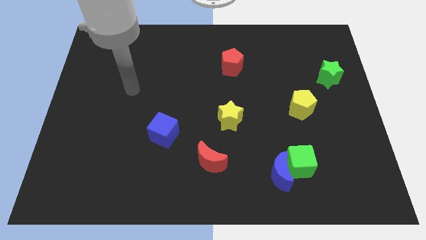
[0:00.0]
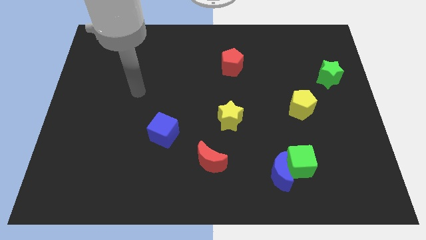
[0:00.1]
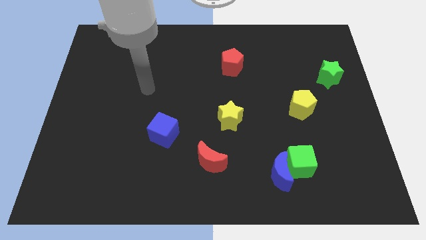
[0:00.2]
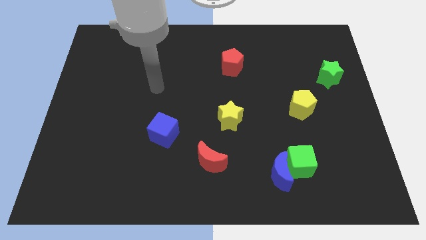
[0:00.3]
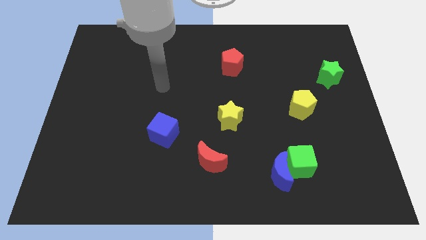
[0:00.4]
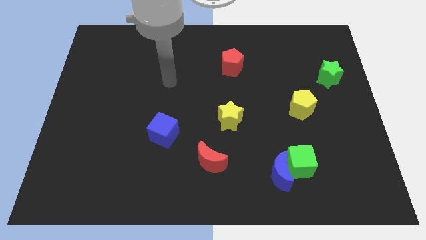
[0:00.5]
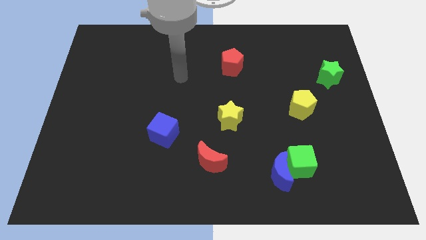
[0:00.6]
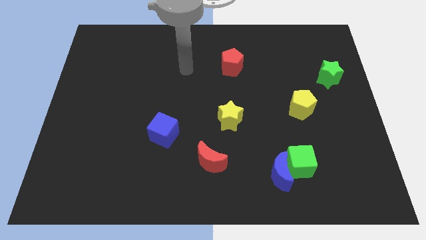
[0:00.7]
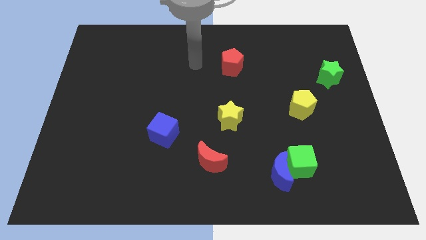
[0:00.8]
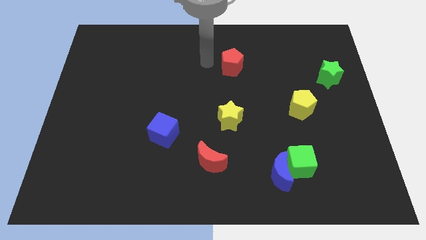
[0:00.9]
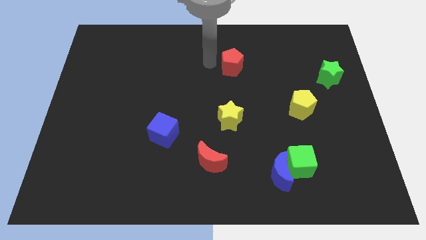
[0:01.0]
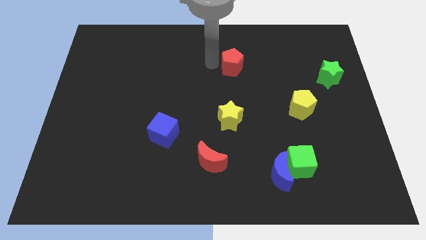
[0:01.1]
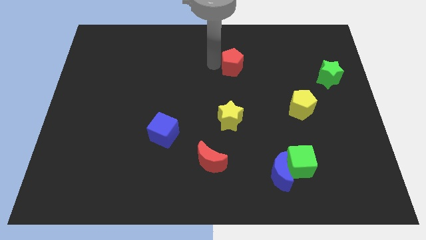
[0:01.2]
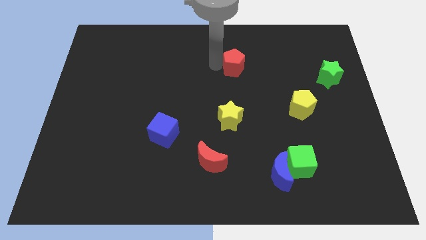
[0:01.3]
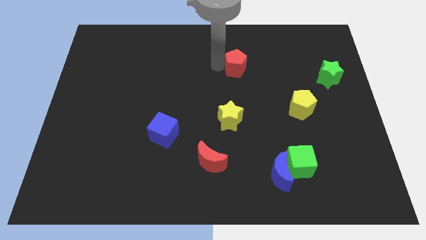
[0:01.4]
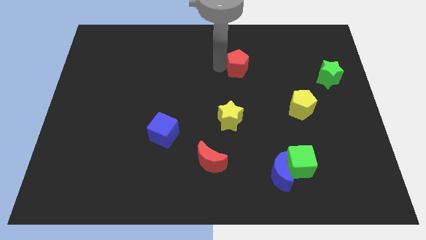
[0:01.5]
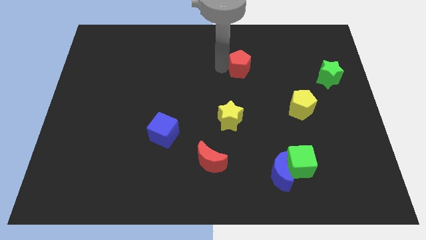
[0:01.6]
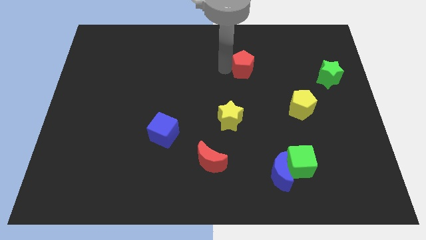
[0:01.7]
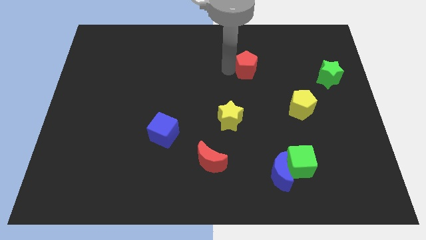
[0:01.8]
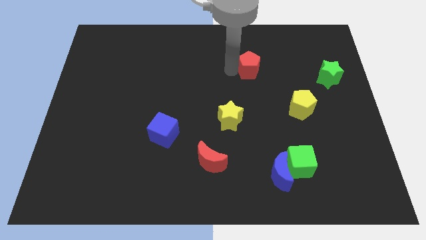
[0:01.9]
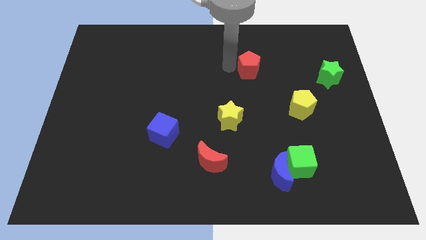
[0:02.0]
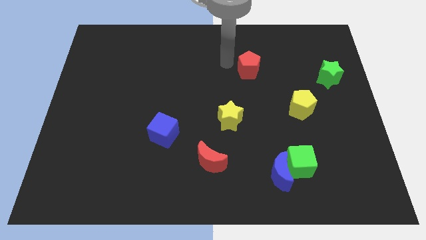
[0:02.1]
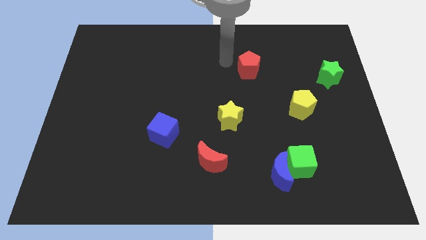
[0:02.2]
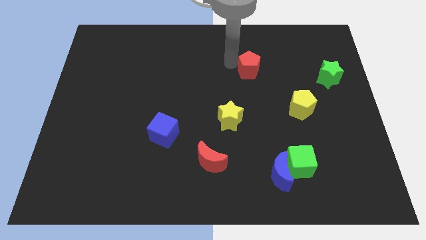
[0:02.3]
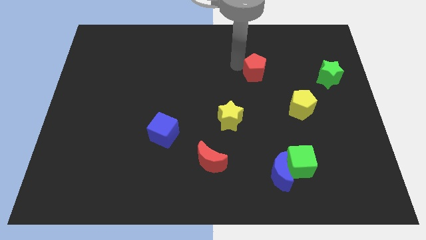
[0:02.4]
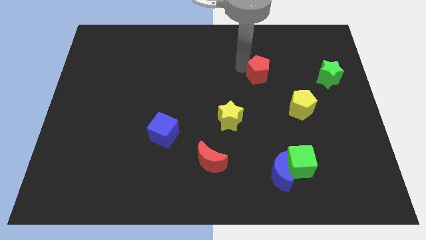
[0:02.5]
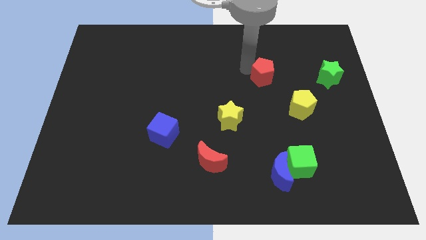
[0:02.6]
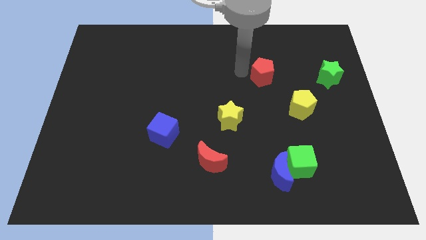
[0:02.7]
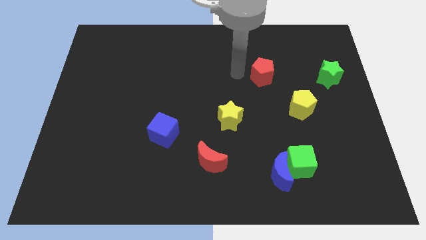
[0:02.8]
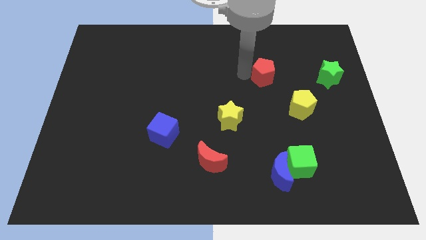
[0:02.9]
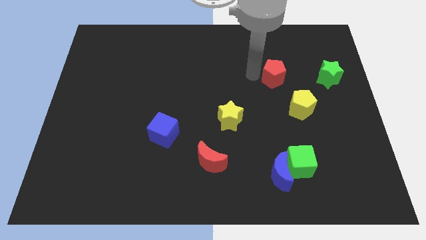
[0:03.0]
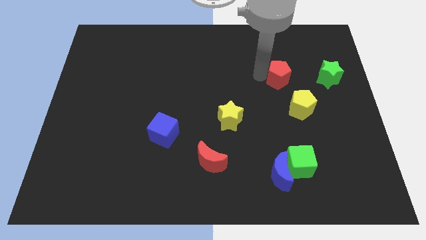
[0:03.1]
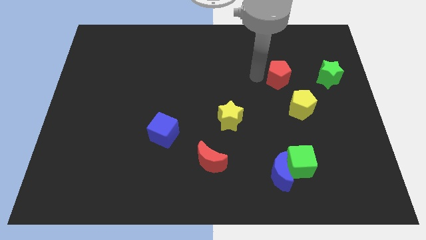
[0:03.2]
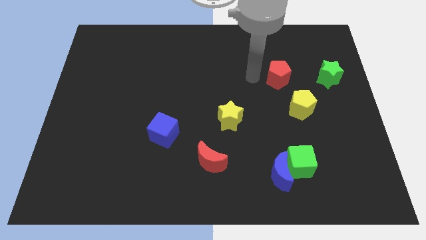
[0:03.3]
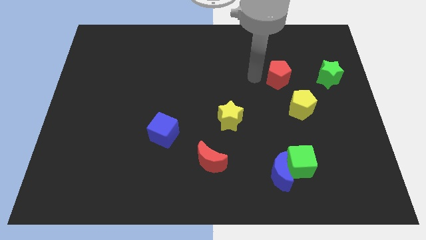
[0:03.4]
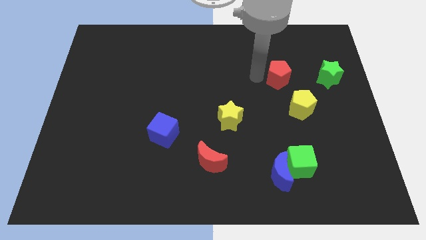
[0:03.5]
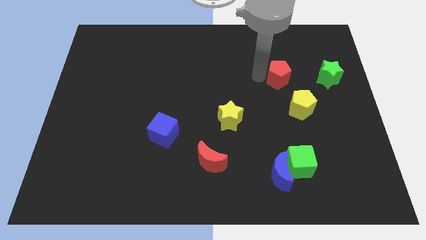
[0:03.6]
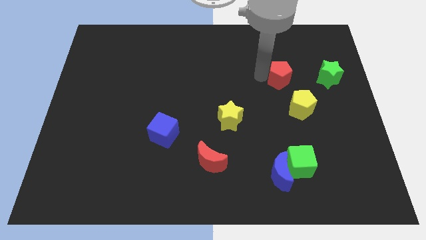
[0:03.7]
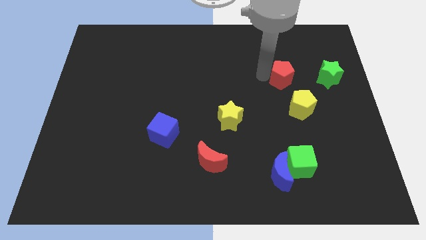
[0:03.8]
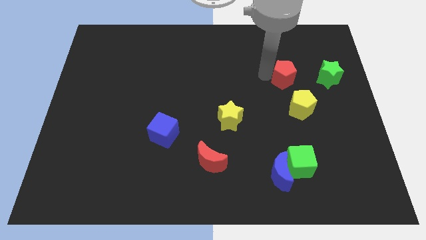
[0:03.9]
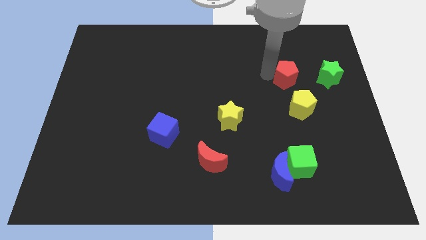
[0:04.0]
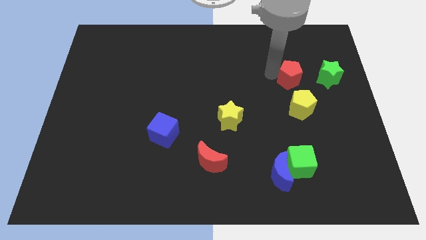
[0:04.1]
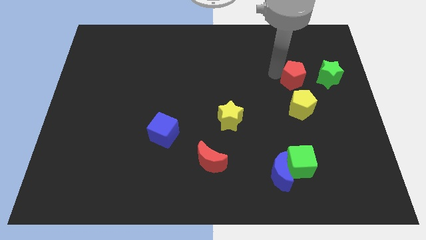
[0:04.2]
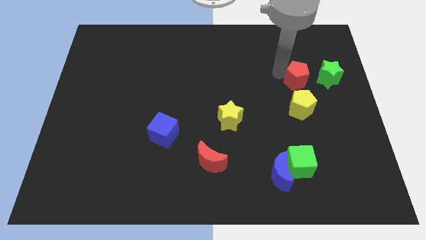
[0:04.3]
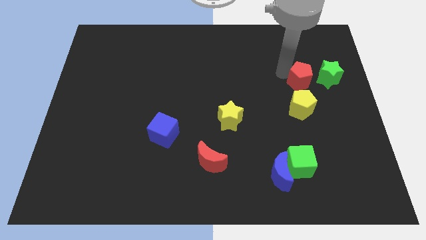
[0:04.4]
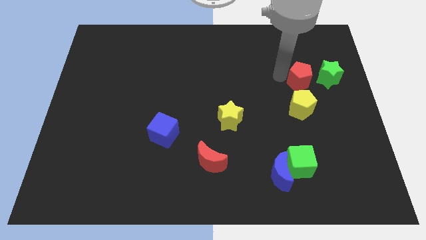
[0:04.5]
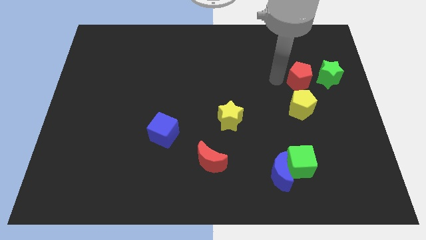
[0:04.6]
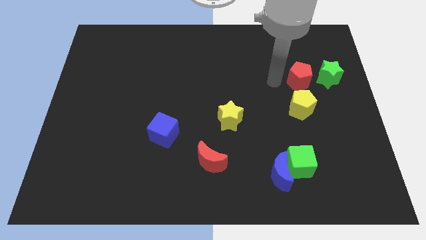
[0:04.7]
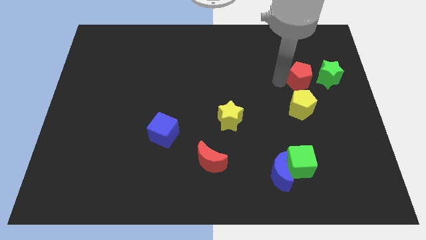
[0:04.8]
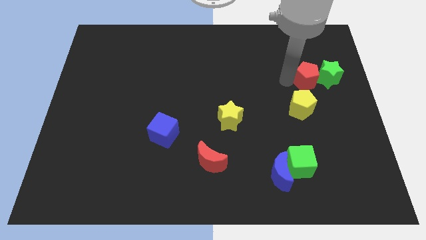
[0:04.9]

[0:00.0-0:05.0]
push the red pentagon next to the green star

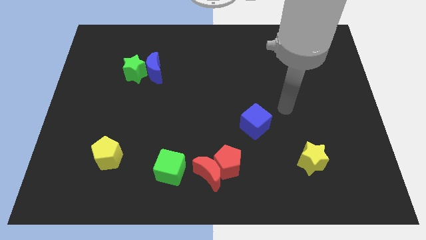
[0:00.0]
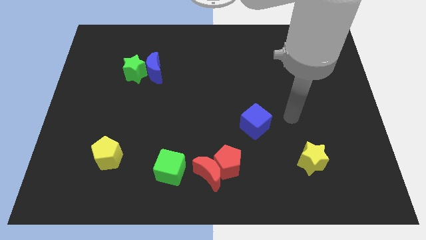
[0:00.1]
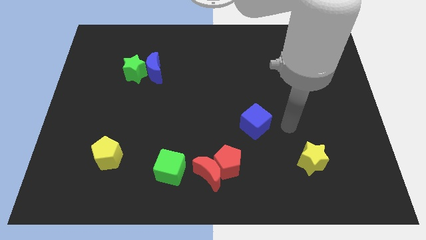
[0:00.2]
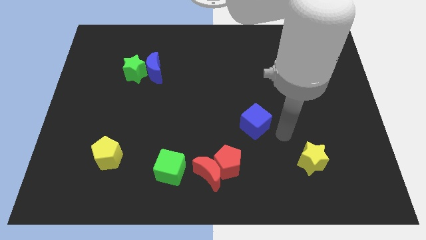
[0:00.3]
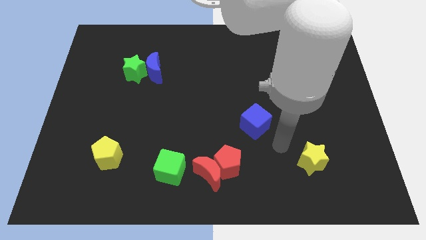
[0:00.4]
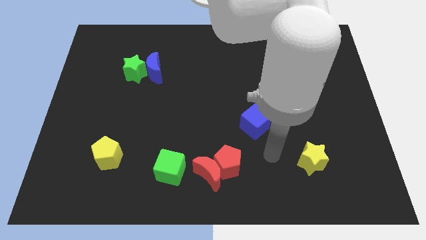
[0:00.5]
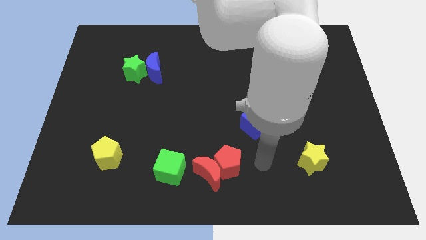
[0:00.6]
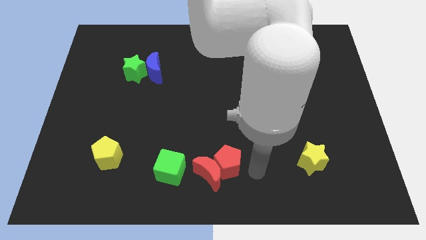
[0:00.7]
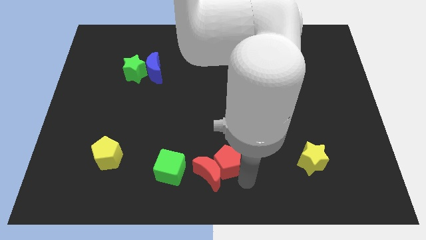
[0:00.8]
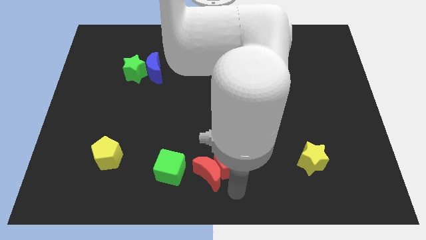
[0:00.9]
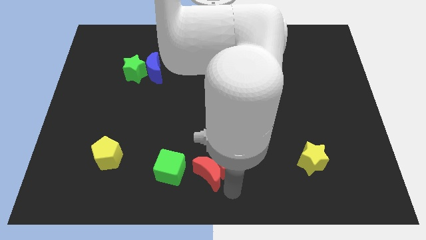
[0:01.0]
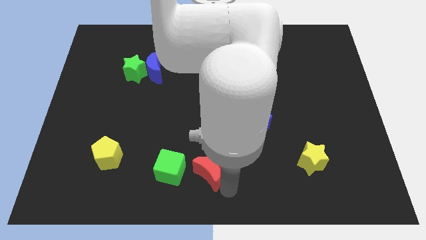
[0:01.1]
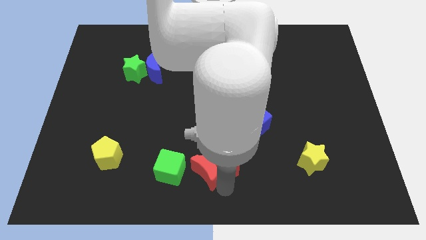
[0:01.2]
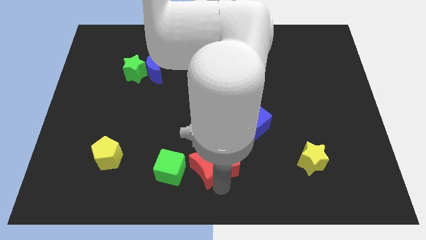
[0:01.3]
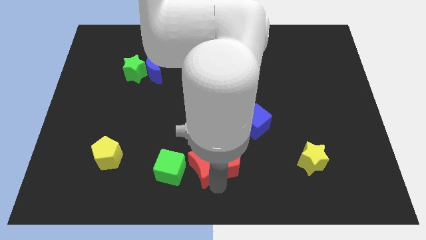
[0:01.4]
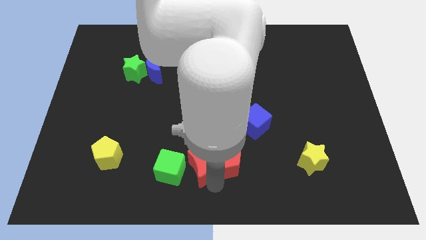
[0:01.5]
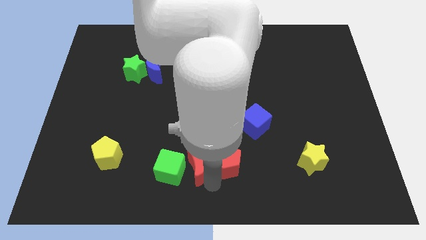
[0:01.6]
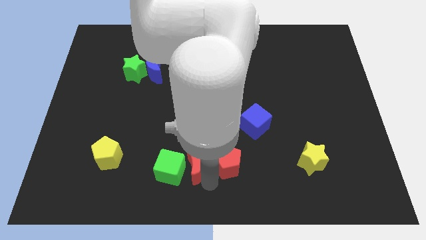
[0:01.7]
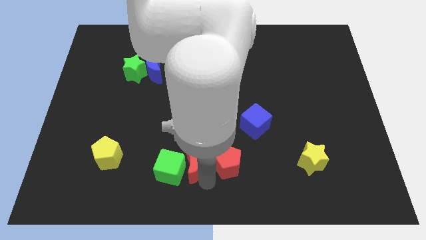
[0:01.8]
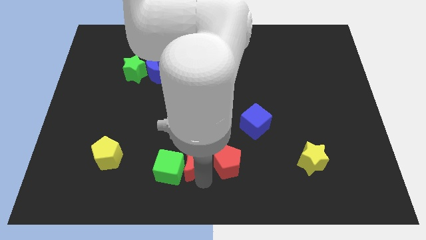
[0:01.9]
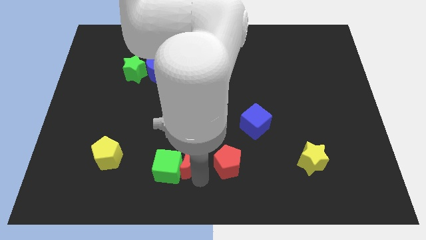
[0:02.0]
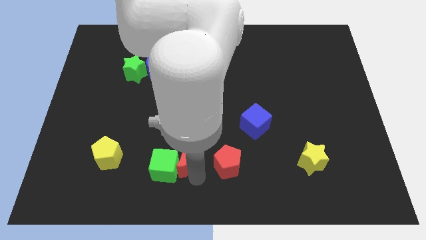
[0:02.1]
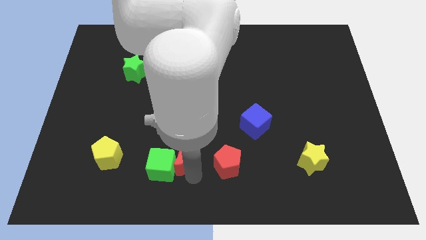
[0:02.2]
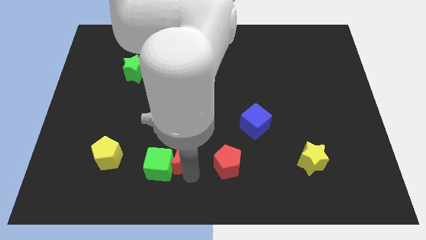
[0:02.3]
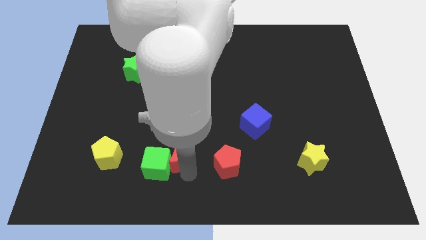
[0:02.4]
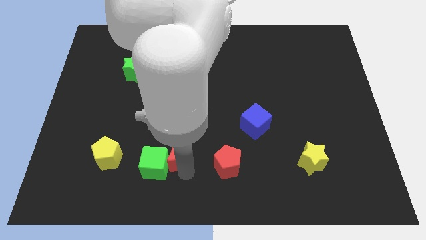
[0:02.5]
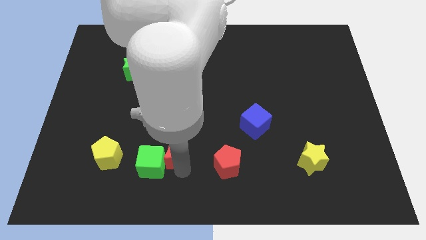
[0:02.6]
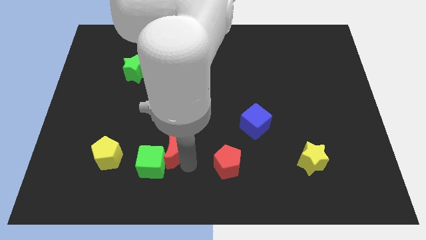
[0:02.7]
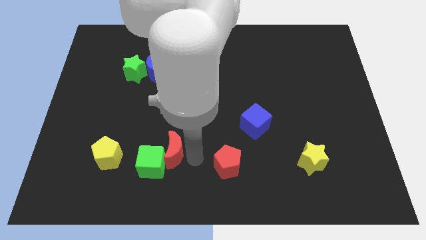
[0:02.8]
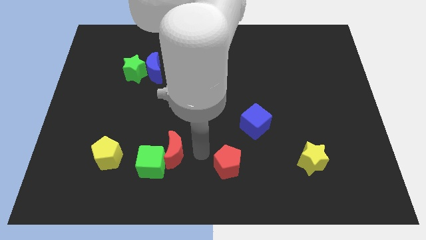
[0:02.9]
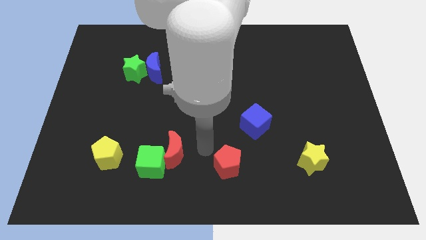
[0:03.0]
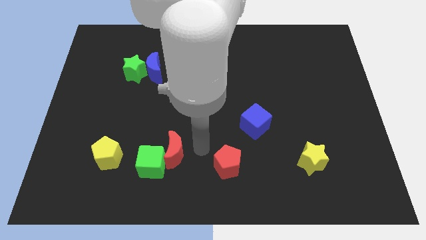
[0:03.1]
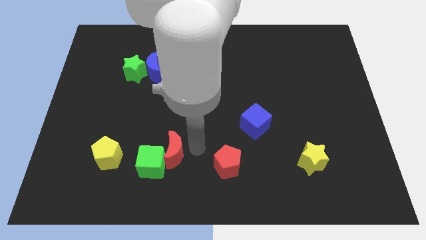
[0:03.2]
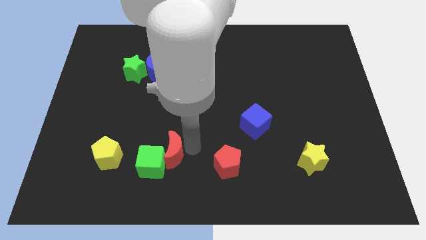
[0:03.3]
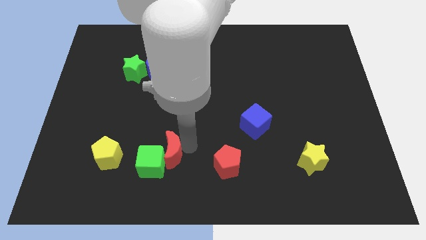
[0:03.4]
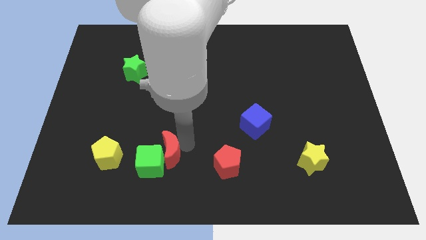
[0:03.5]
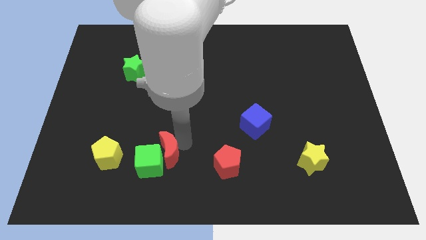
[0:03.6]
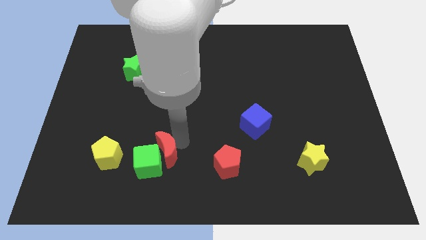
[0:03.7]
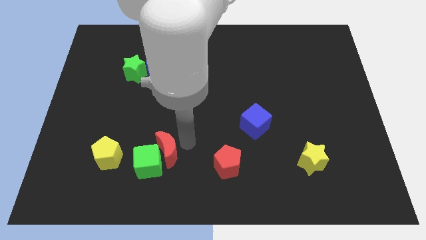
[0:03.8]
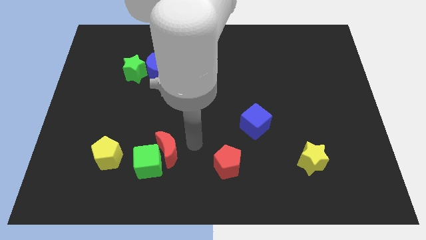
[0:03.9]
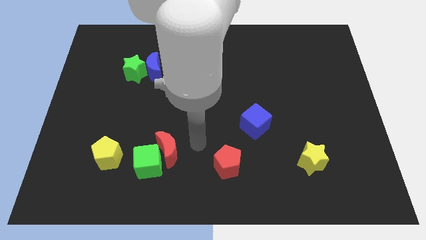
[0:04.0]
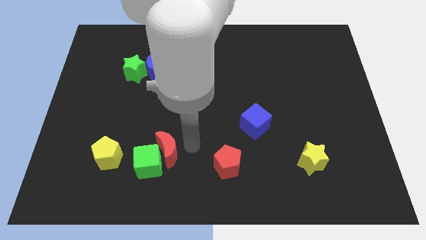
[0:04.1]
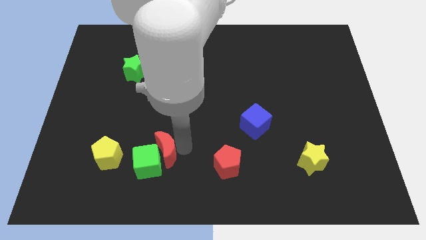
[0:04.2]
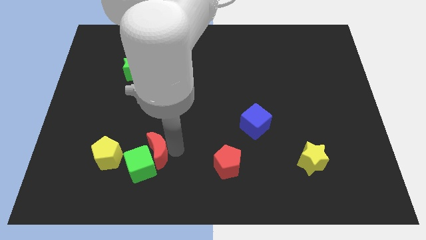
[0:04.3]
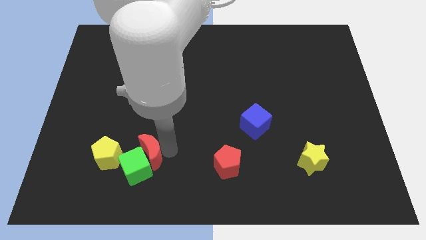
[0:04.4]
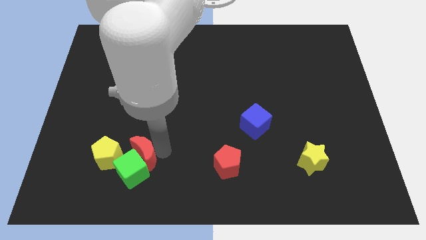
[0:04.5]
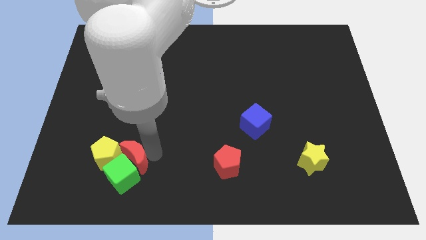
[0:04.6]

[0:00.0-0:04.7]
push the red moon next to the yellow pentagon
